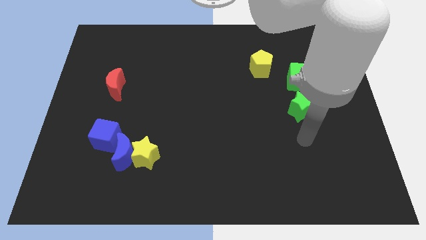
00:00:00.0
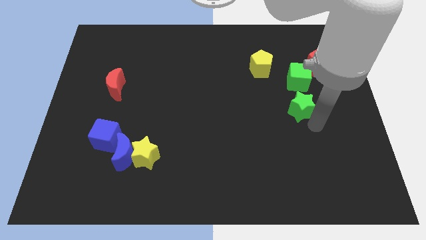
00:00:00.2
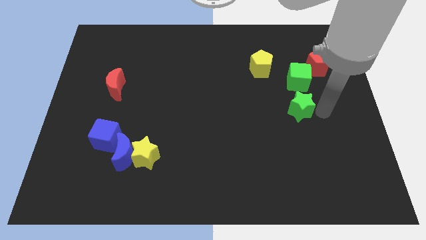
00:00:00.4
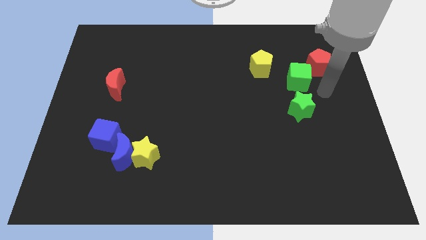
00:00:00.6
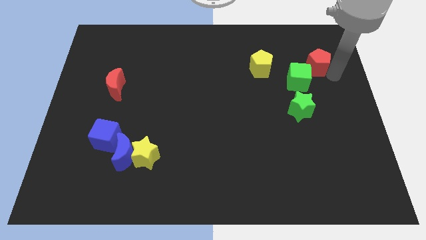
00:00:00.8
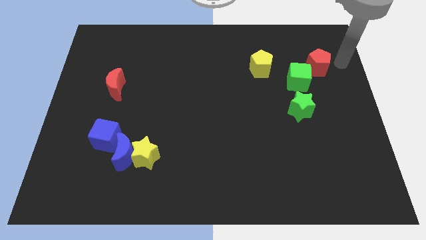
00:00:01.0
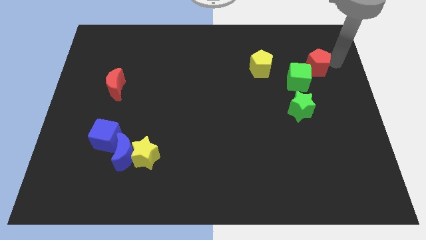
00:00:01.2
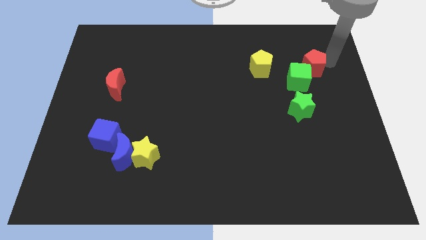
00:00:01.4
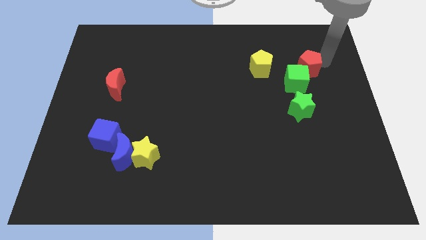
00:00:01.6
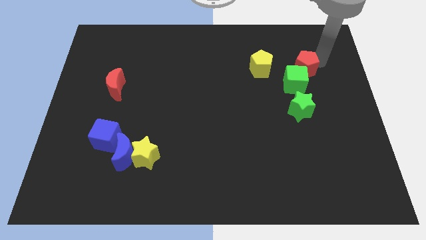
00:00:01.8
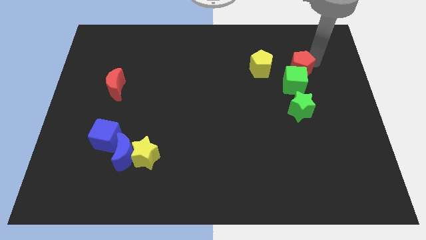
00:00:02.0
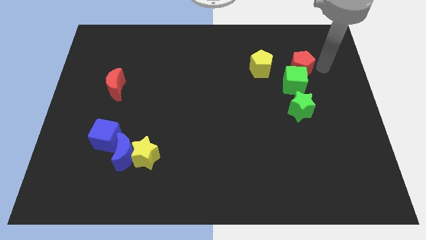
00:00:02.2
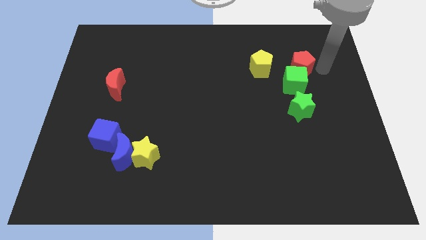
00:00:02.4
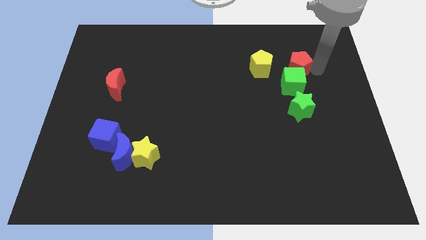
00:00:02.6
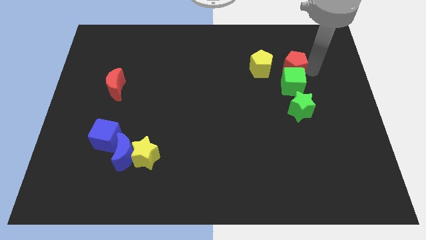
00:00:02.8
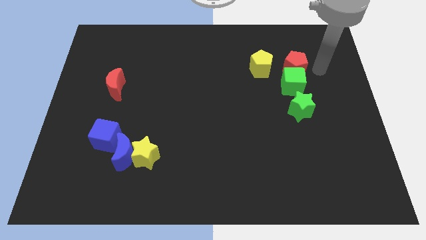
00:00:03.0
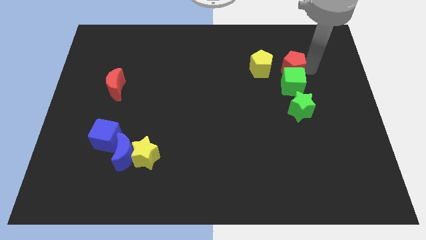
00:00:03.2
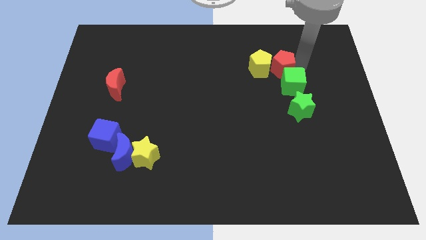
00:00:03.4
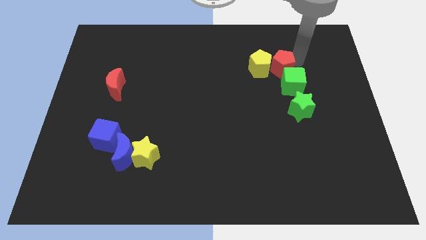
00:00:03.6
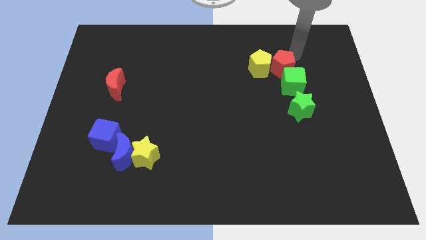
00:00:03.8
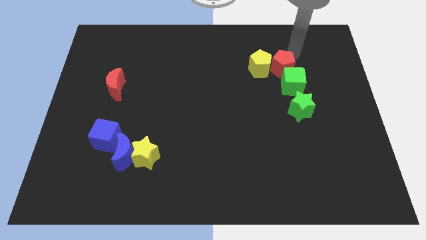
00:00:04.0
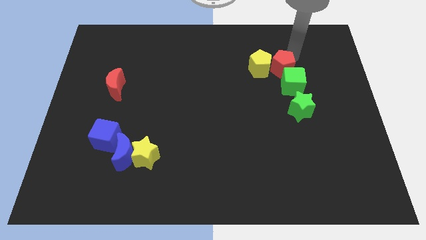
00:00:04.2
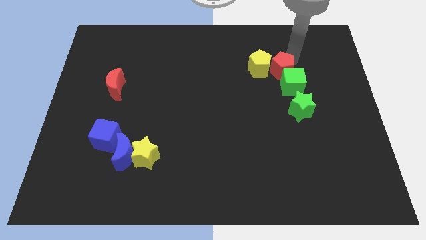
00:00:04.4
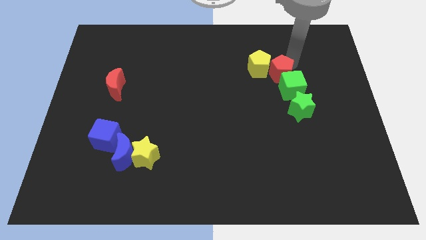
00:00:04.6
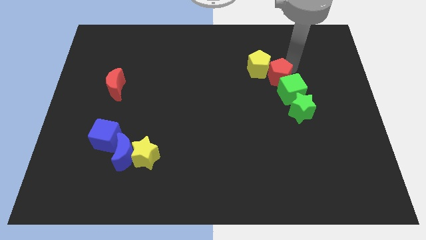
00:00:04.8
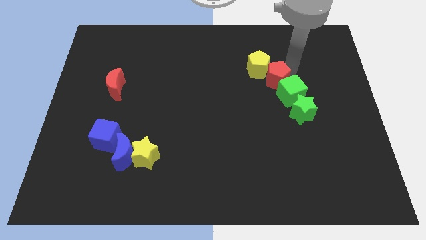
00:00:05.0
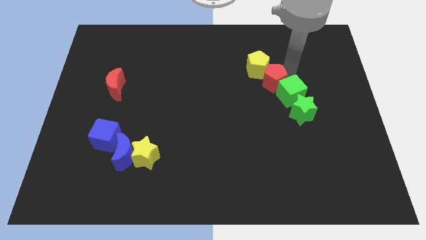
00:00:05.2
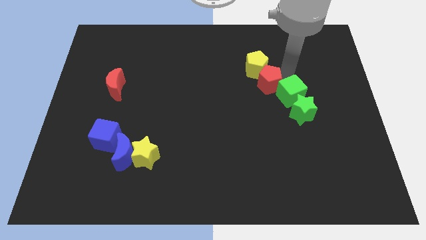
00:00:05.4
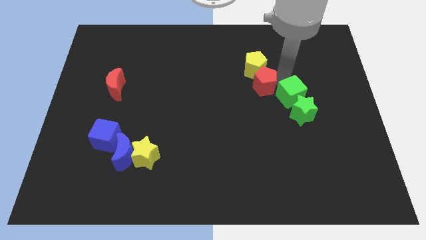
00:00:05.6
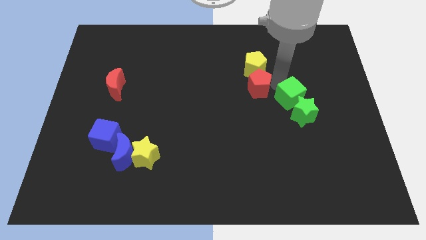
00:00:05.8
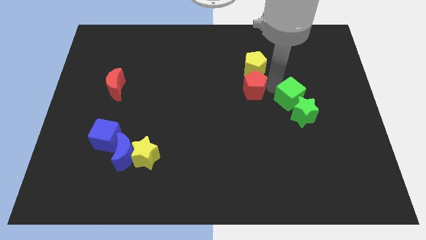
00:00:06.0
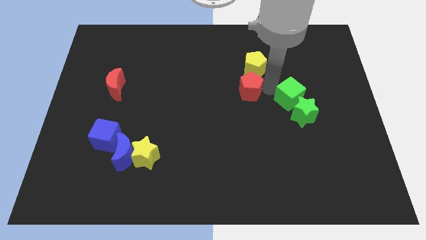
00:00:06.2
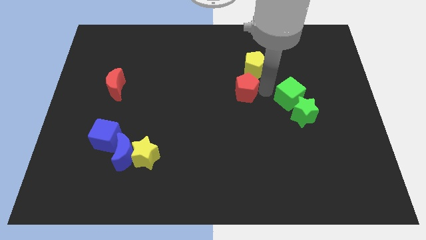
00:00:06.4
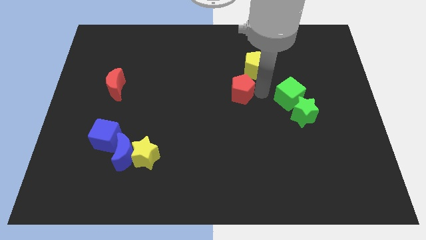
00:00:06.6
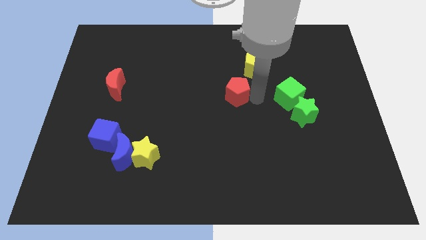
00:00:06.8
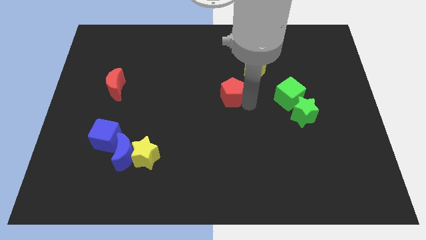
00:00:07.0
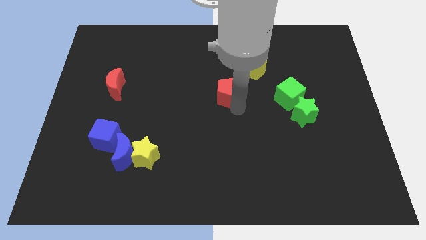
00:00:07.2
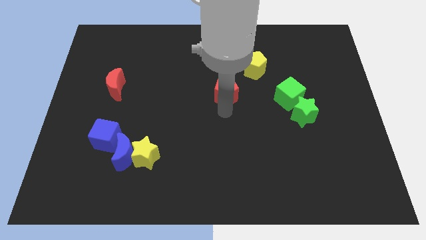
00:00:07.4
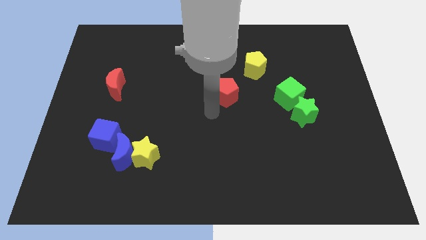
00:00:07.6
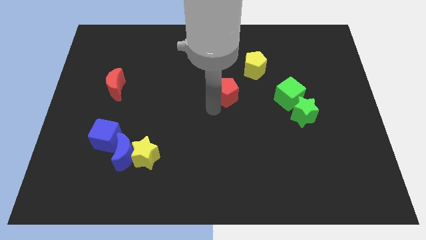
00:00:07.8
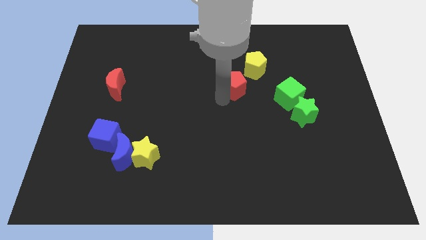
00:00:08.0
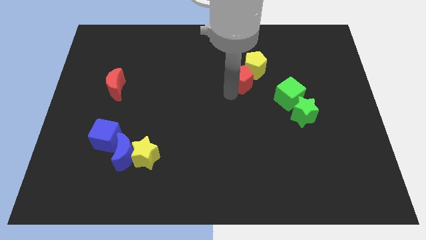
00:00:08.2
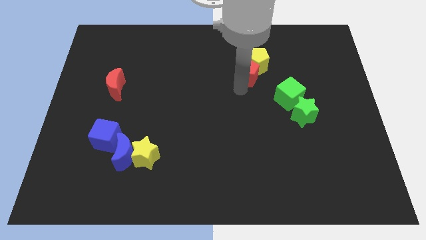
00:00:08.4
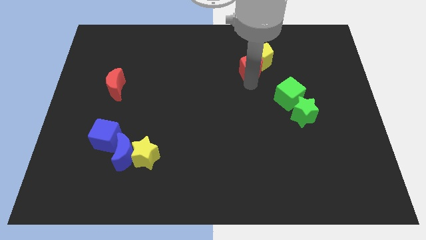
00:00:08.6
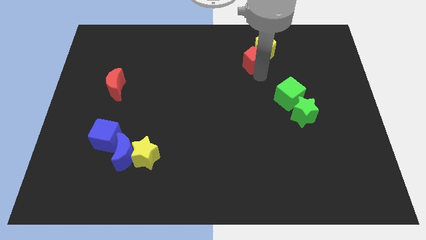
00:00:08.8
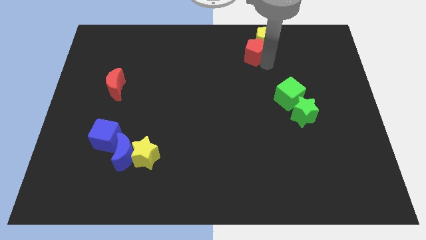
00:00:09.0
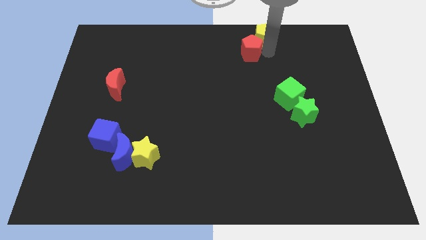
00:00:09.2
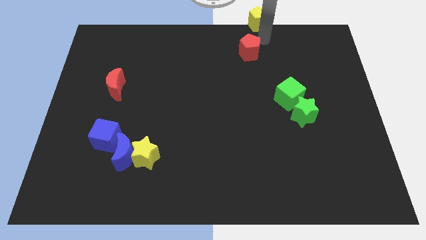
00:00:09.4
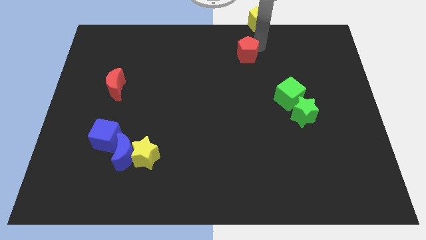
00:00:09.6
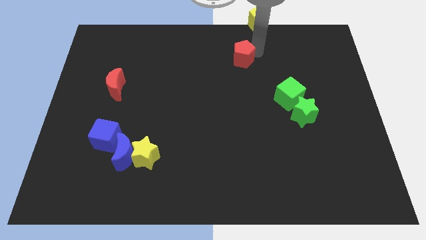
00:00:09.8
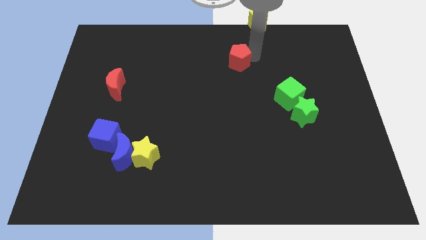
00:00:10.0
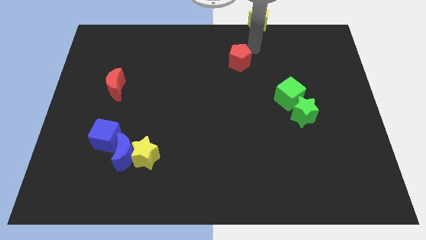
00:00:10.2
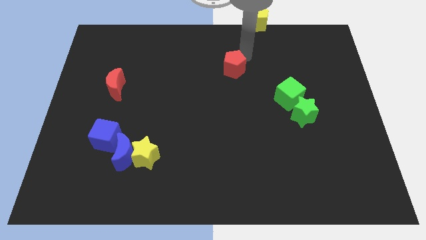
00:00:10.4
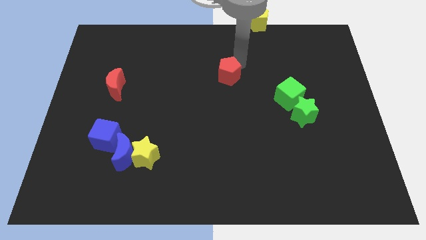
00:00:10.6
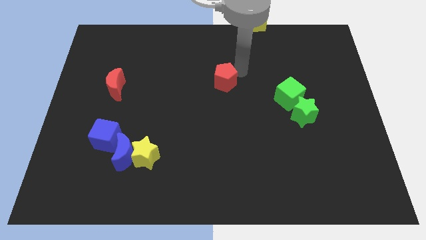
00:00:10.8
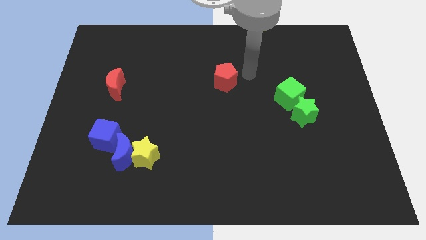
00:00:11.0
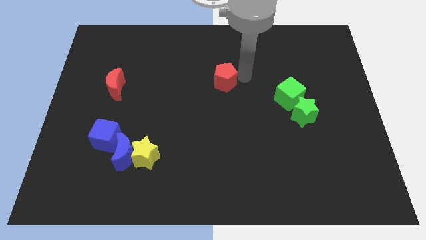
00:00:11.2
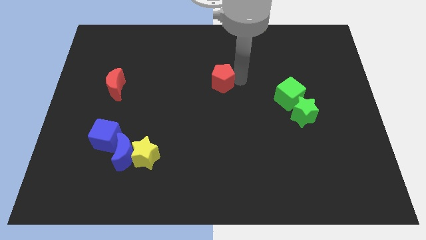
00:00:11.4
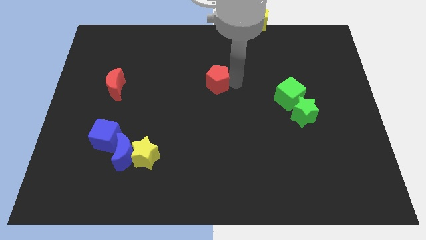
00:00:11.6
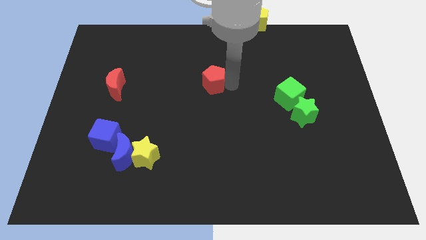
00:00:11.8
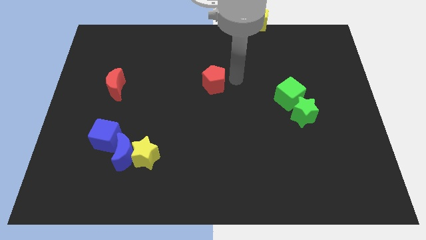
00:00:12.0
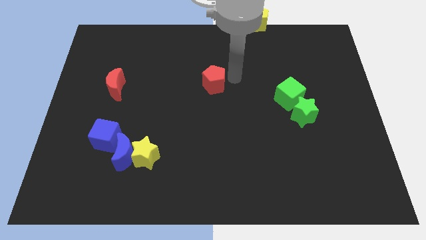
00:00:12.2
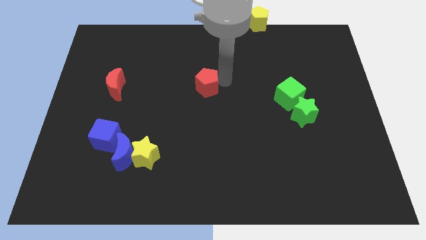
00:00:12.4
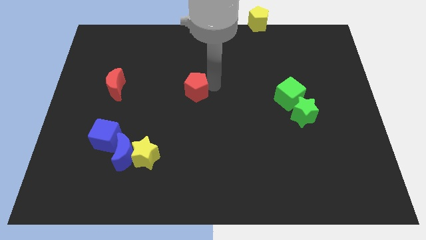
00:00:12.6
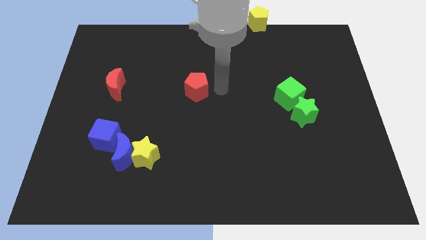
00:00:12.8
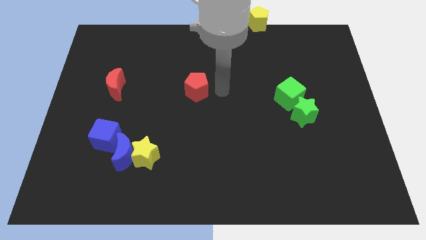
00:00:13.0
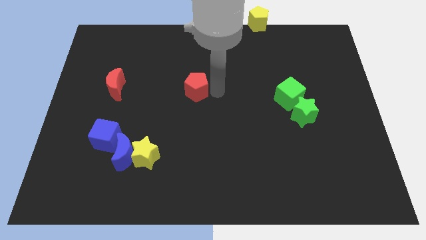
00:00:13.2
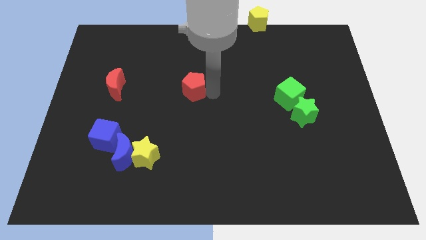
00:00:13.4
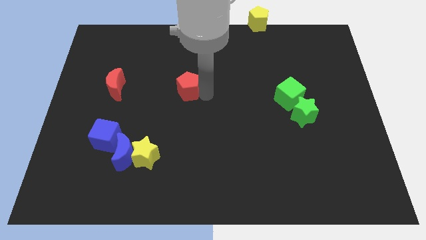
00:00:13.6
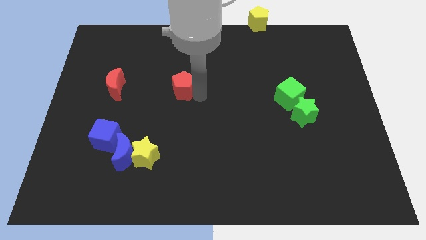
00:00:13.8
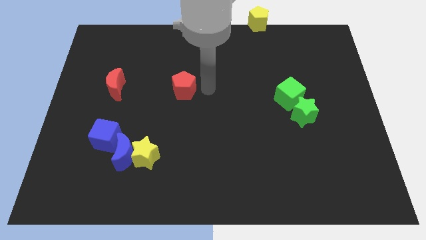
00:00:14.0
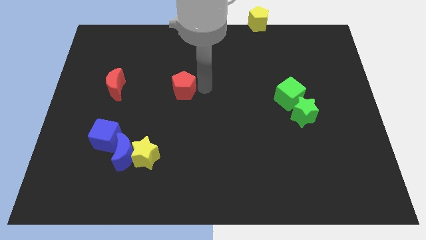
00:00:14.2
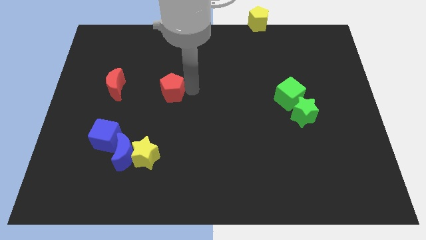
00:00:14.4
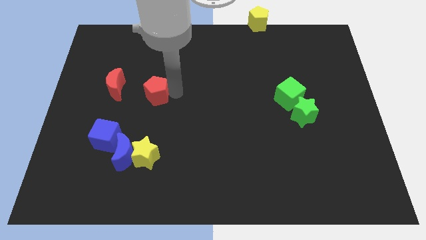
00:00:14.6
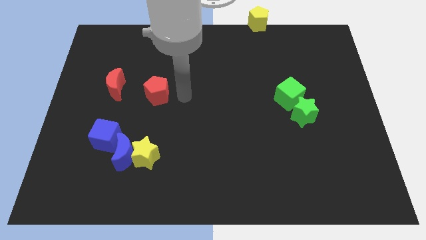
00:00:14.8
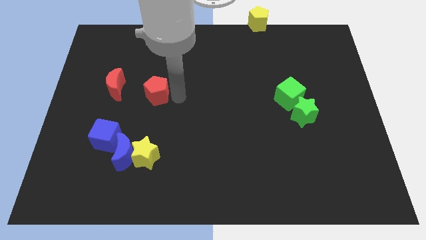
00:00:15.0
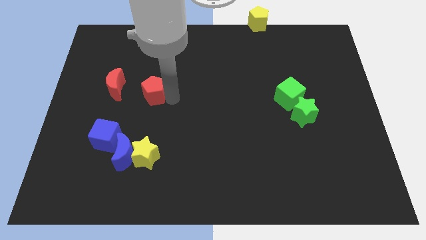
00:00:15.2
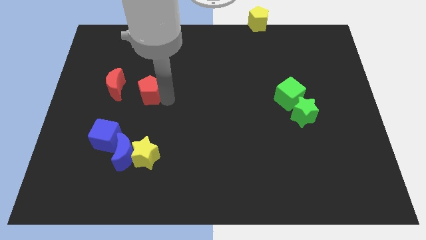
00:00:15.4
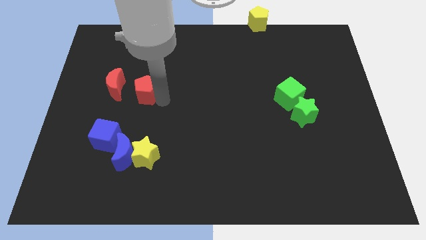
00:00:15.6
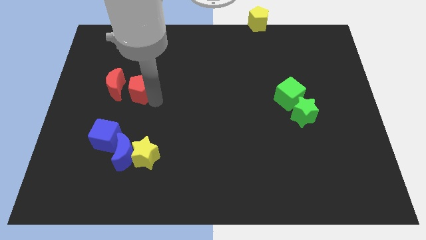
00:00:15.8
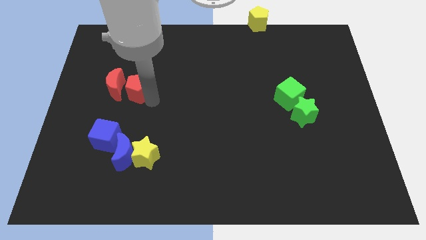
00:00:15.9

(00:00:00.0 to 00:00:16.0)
push the red pentagon close to the red moon
